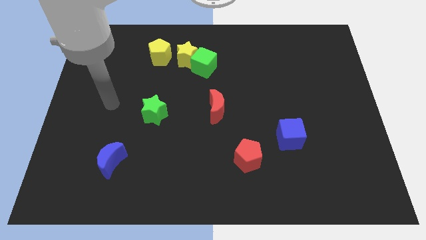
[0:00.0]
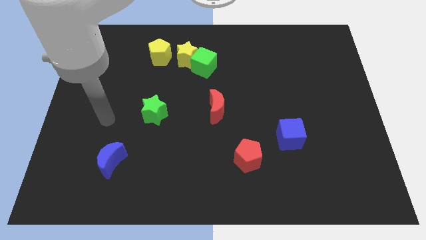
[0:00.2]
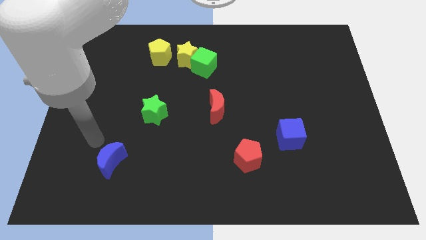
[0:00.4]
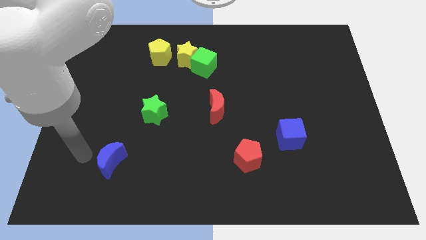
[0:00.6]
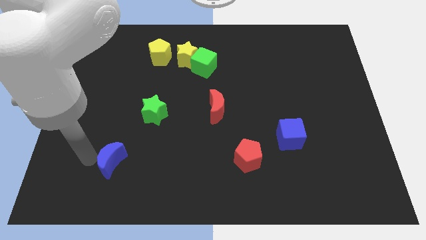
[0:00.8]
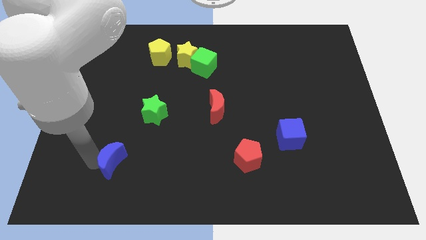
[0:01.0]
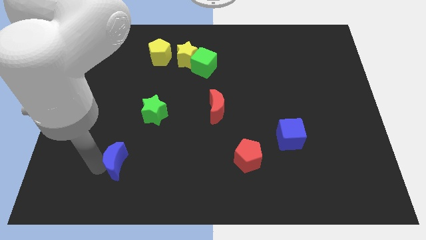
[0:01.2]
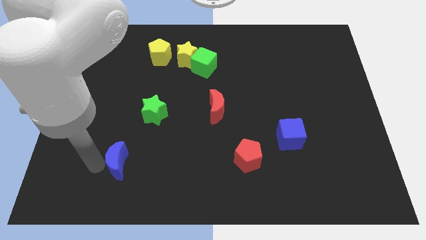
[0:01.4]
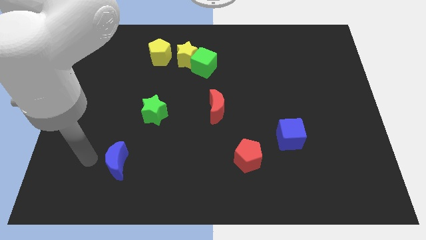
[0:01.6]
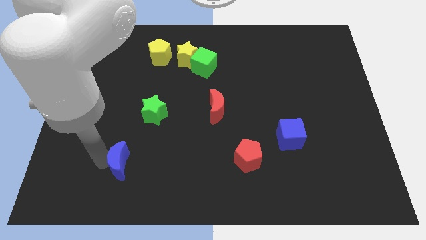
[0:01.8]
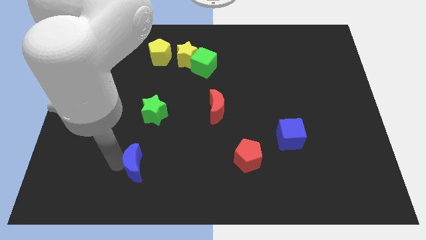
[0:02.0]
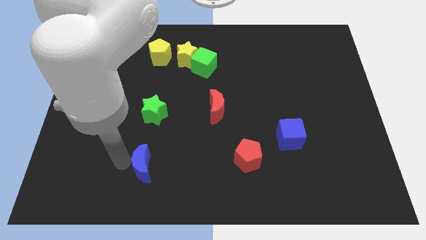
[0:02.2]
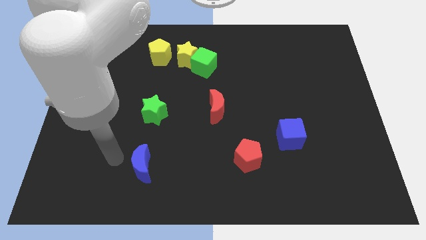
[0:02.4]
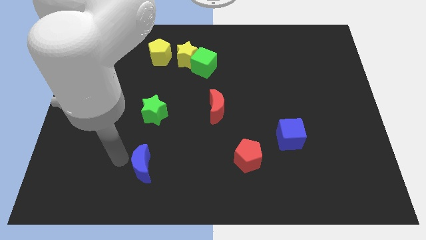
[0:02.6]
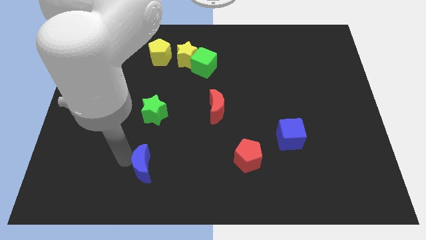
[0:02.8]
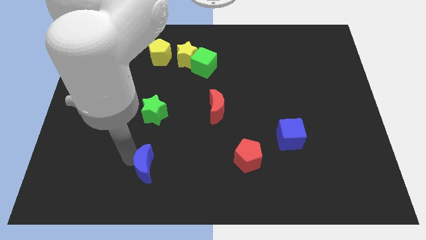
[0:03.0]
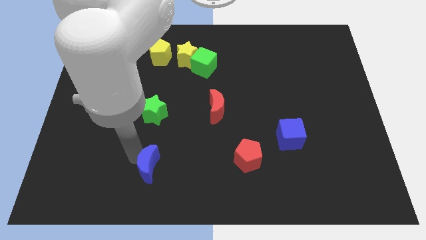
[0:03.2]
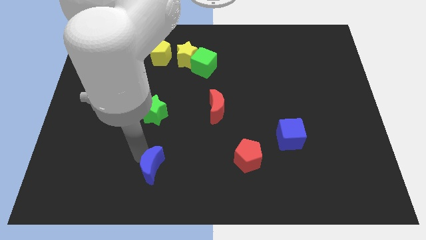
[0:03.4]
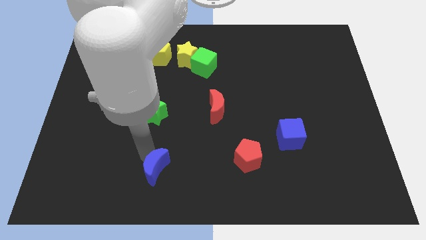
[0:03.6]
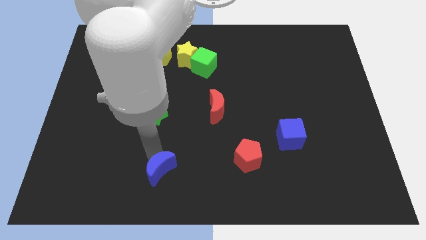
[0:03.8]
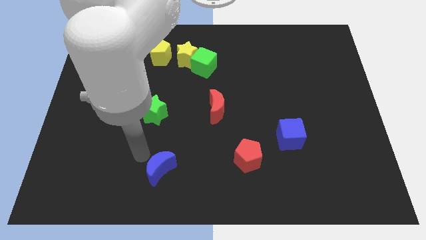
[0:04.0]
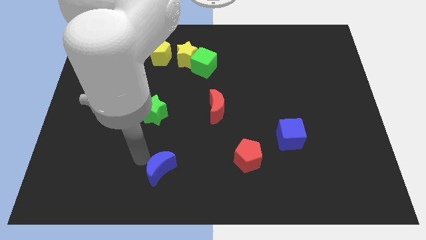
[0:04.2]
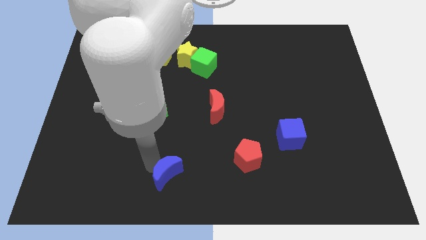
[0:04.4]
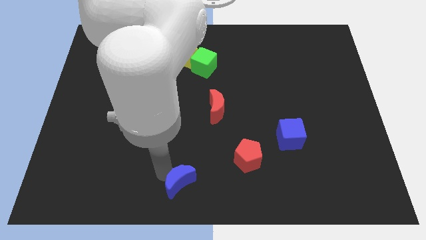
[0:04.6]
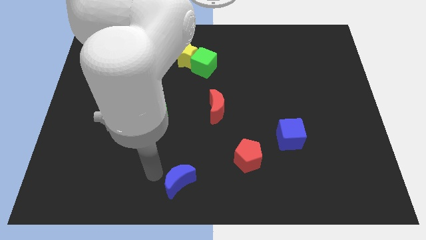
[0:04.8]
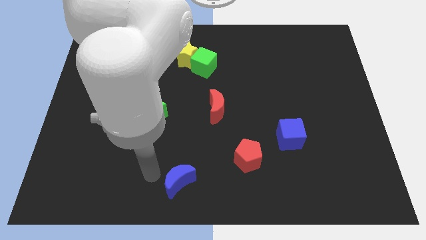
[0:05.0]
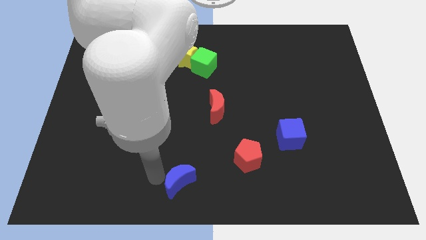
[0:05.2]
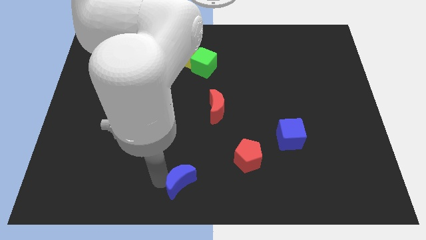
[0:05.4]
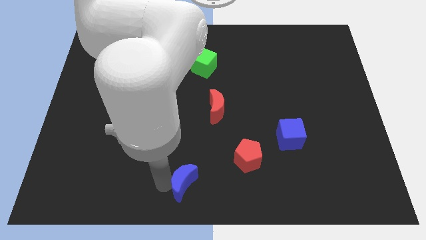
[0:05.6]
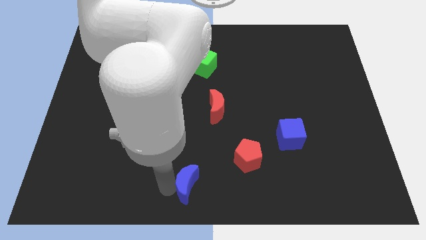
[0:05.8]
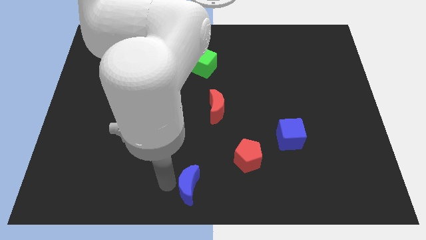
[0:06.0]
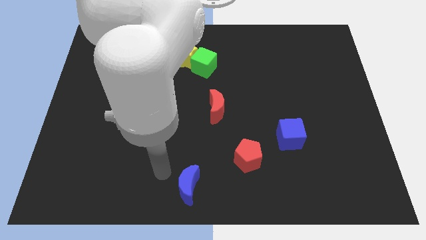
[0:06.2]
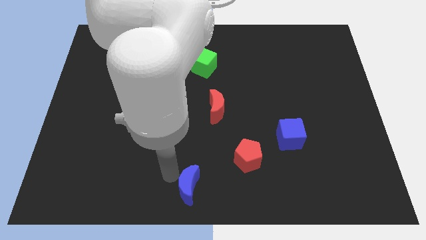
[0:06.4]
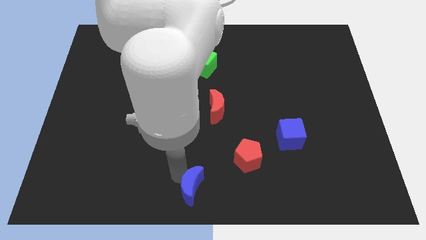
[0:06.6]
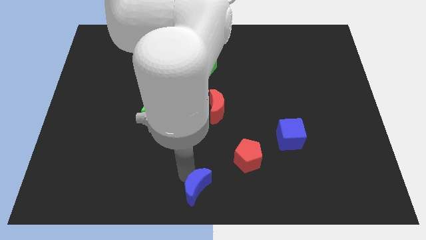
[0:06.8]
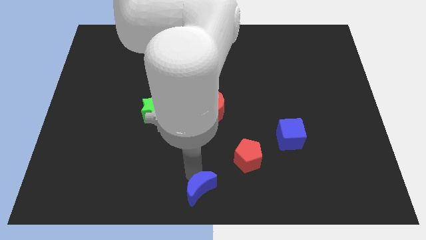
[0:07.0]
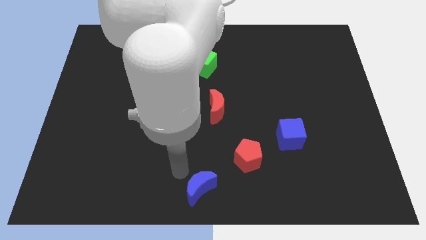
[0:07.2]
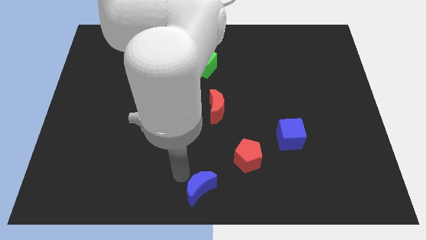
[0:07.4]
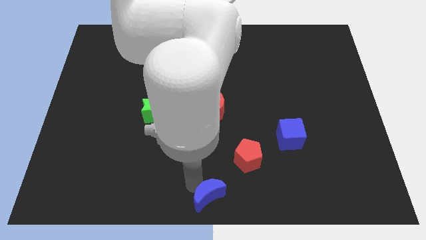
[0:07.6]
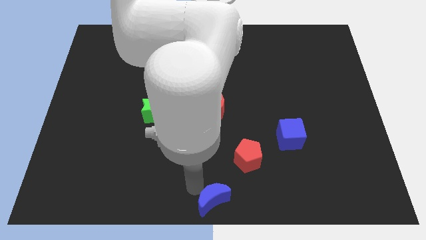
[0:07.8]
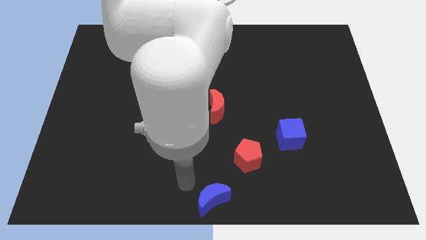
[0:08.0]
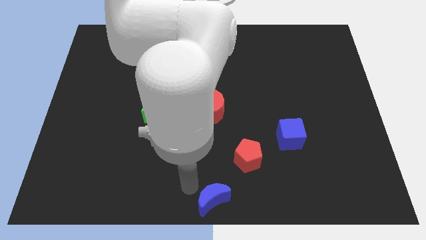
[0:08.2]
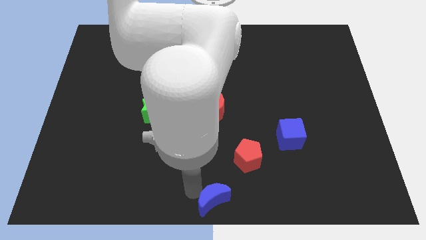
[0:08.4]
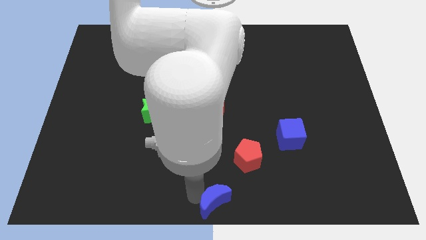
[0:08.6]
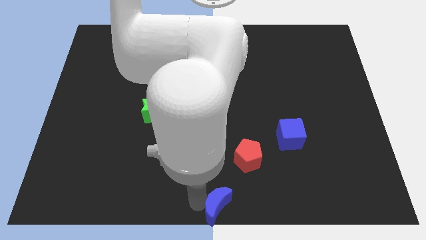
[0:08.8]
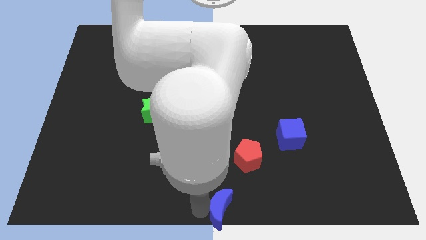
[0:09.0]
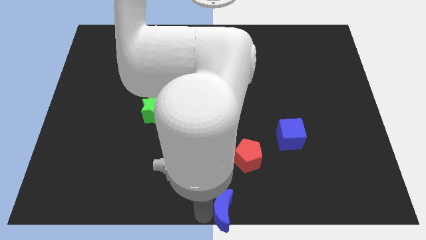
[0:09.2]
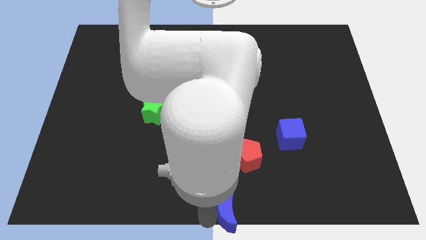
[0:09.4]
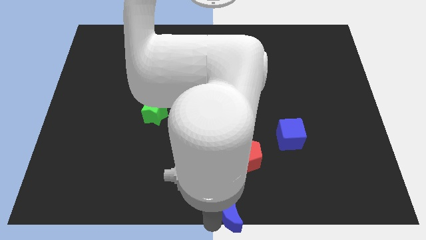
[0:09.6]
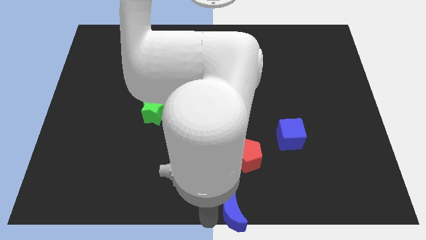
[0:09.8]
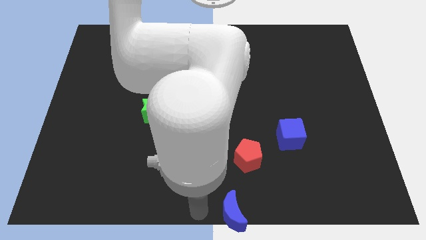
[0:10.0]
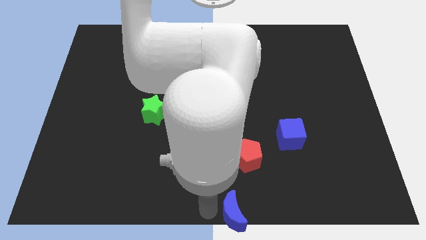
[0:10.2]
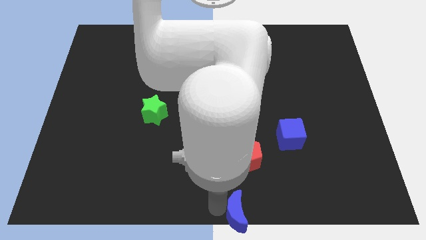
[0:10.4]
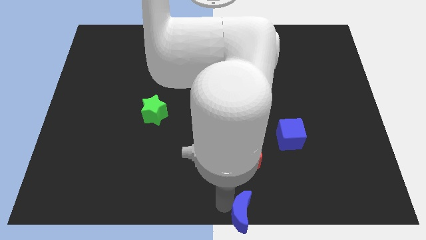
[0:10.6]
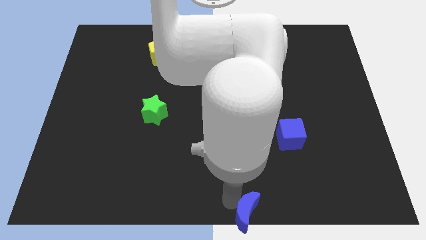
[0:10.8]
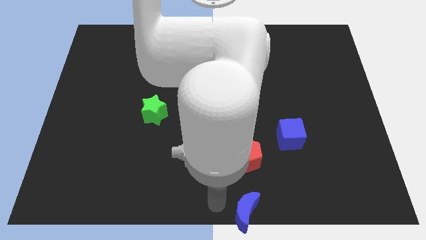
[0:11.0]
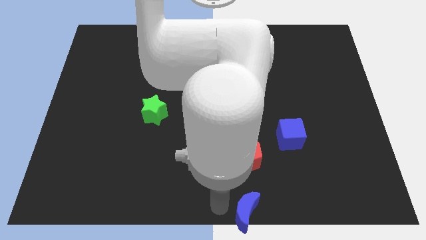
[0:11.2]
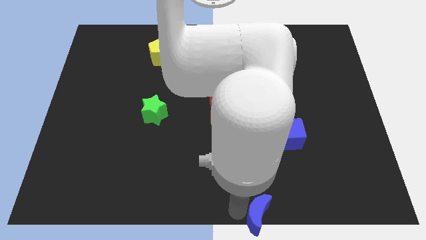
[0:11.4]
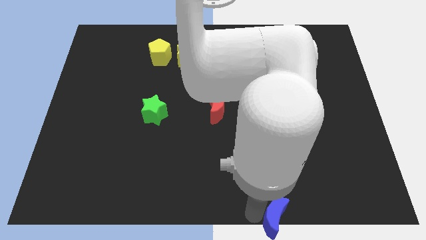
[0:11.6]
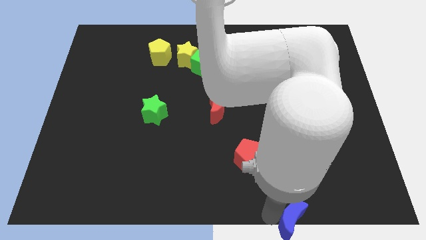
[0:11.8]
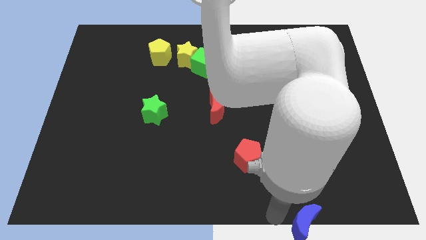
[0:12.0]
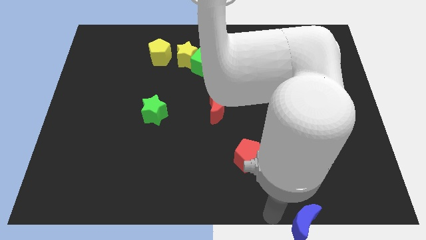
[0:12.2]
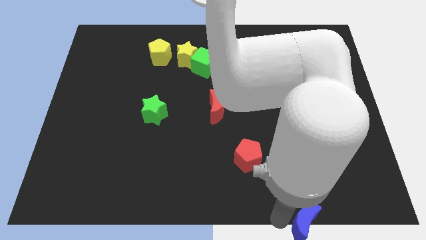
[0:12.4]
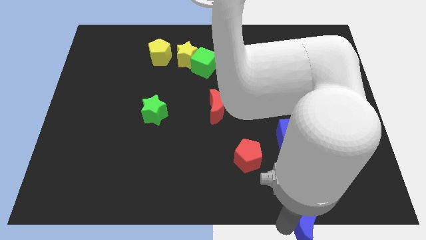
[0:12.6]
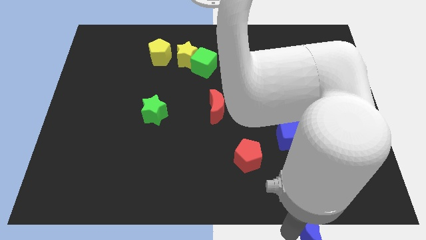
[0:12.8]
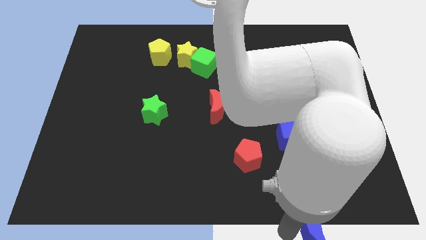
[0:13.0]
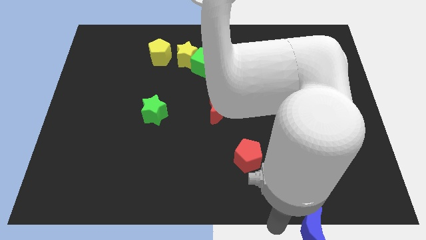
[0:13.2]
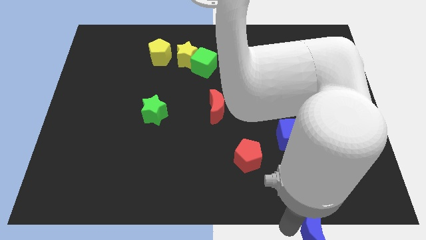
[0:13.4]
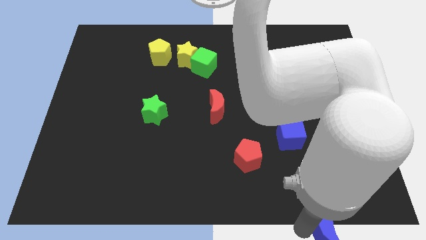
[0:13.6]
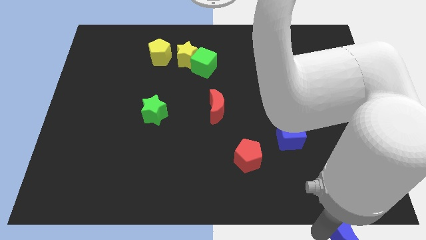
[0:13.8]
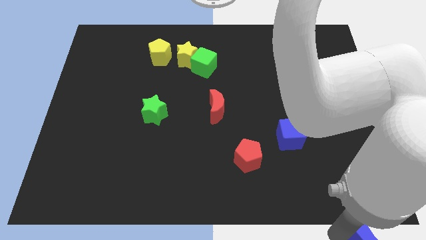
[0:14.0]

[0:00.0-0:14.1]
push the blue moon to the bottom right of the board
